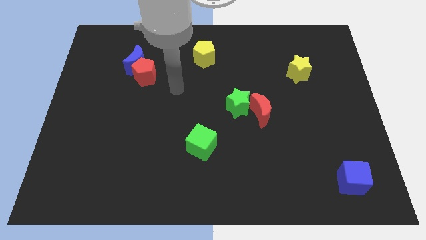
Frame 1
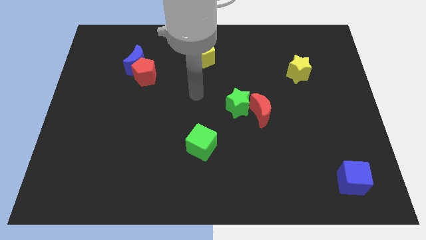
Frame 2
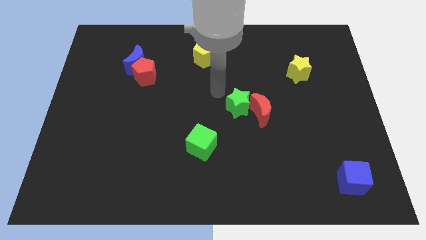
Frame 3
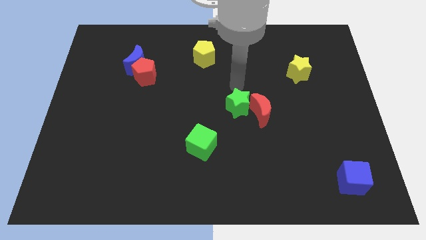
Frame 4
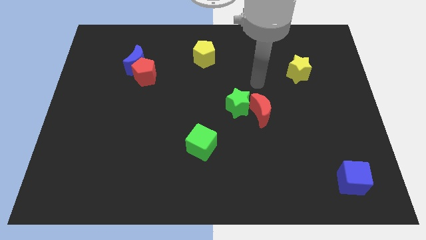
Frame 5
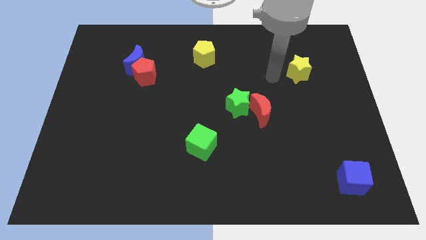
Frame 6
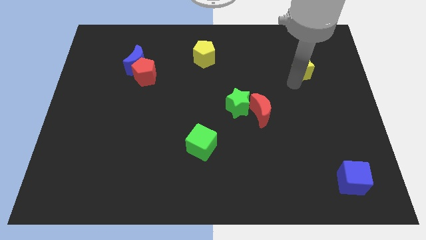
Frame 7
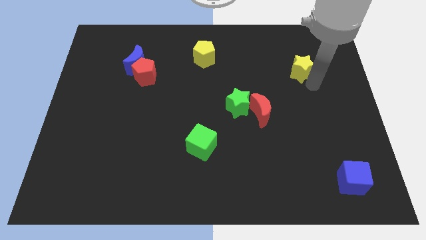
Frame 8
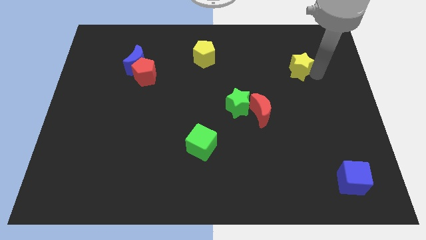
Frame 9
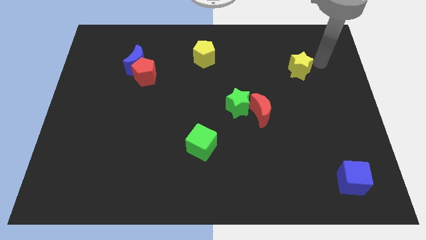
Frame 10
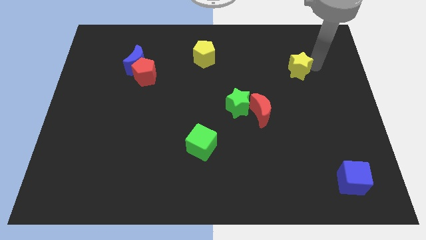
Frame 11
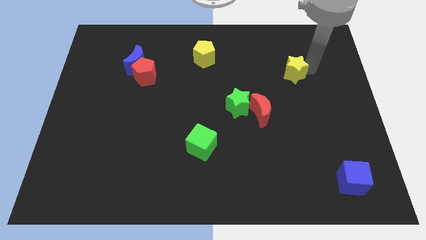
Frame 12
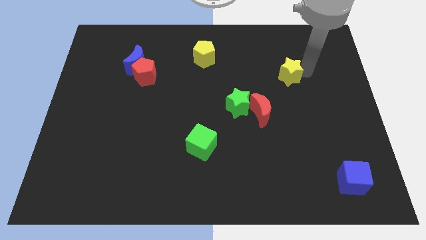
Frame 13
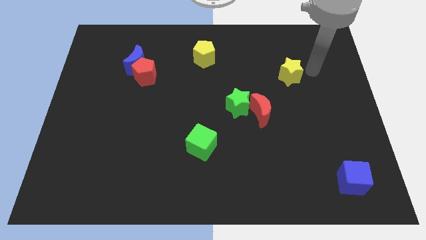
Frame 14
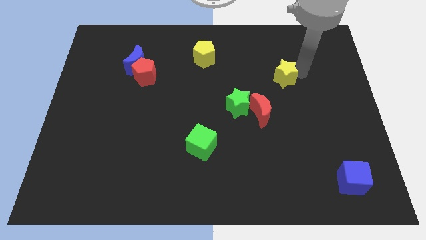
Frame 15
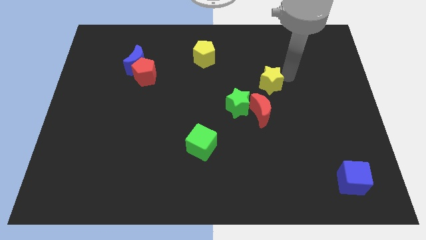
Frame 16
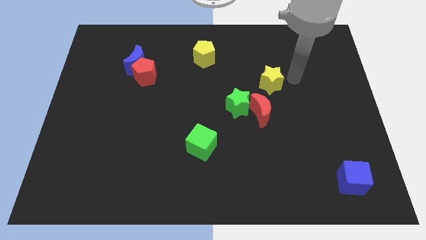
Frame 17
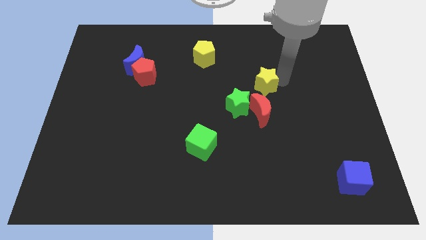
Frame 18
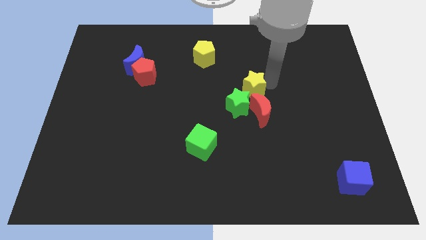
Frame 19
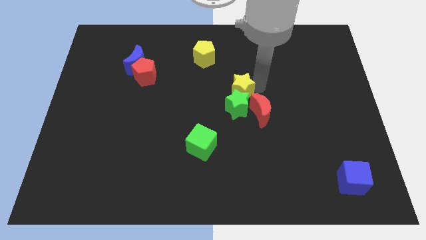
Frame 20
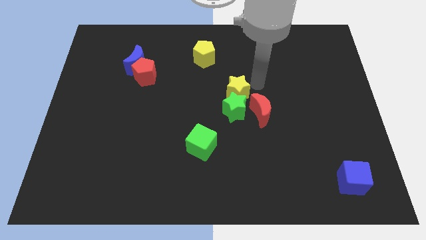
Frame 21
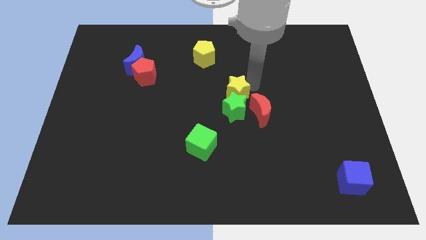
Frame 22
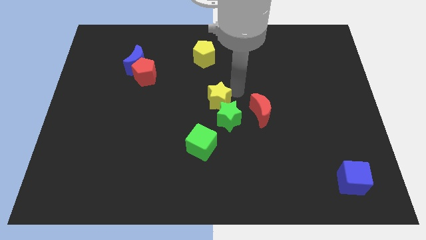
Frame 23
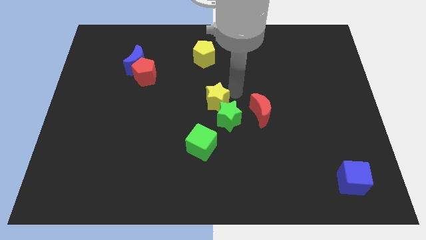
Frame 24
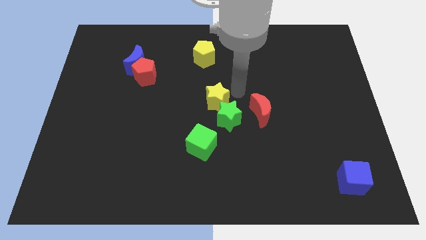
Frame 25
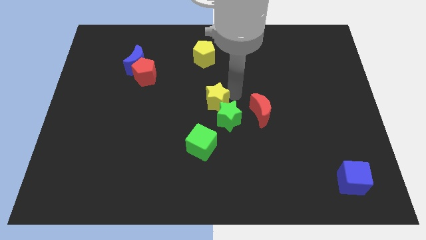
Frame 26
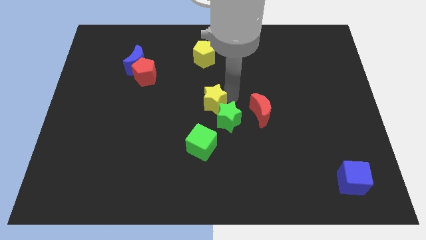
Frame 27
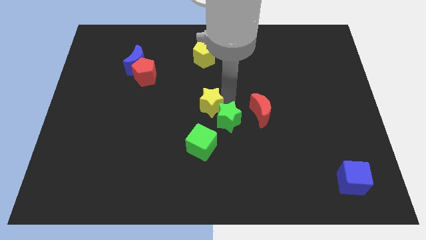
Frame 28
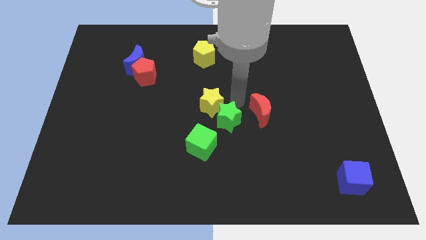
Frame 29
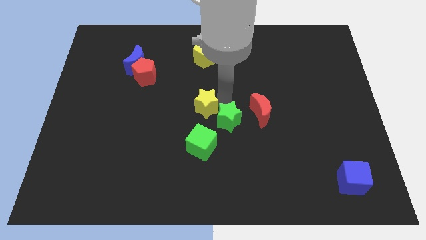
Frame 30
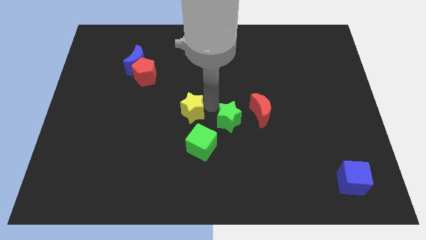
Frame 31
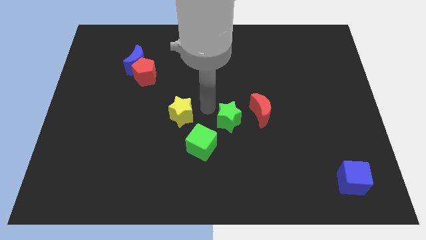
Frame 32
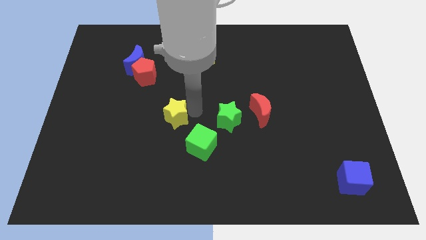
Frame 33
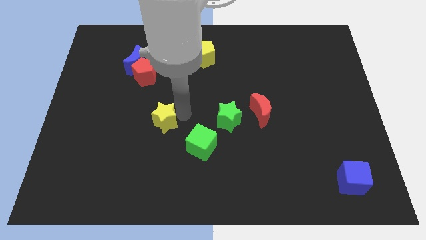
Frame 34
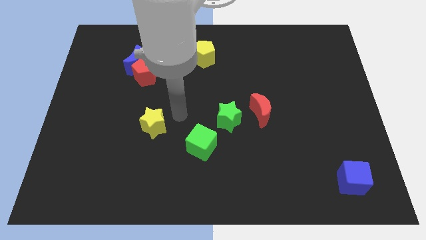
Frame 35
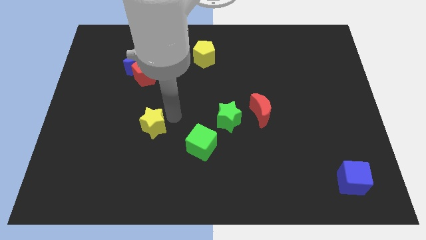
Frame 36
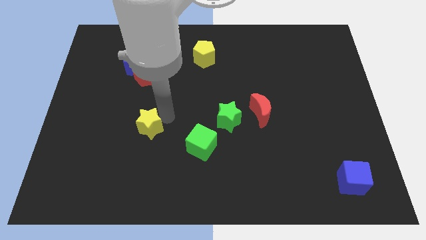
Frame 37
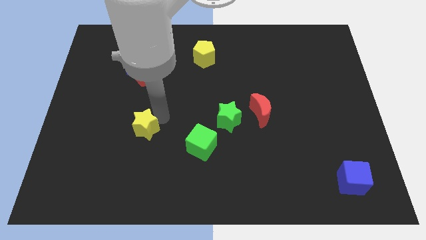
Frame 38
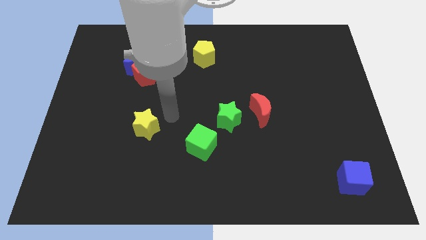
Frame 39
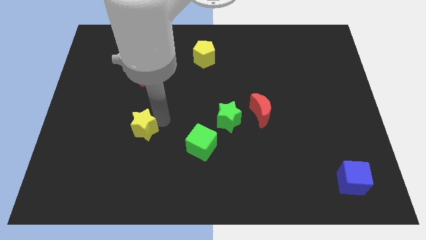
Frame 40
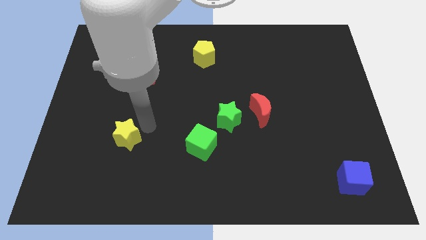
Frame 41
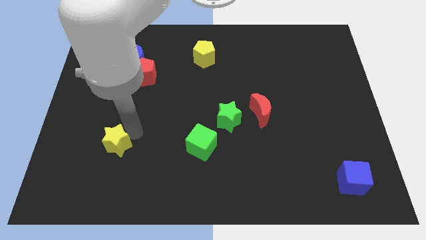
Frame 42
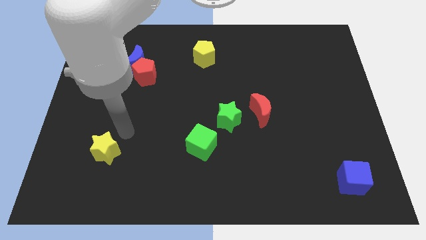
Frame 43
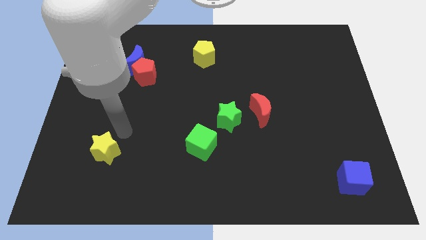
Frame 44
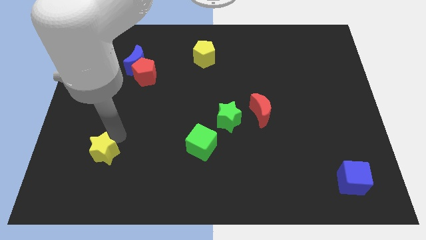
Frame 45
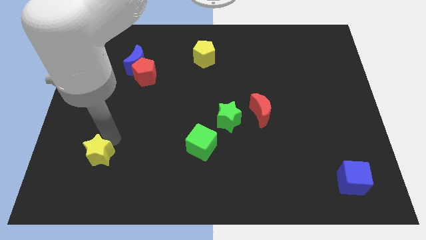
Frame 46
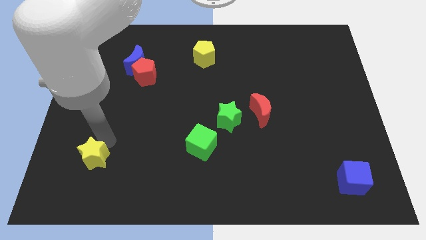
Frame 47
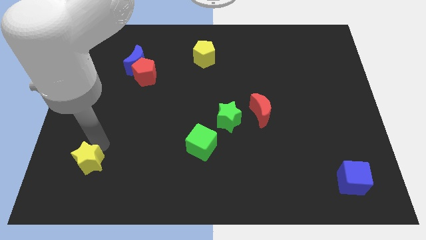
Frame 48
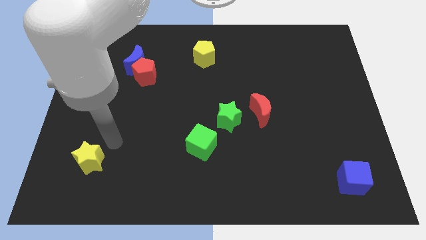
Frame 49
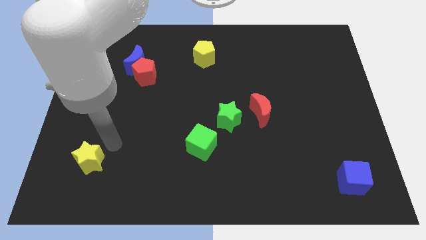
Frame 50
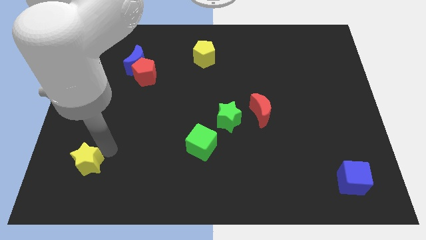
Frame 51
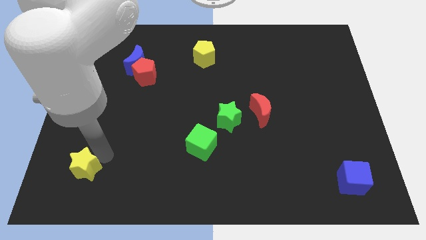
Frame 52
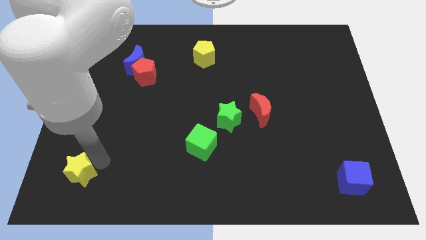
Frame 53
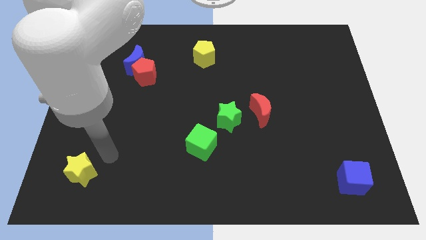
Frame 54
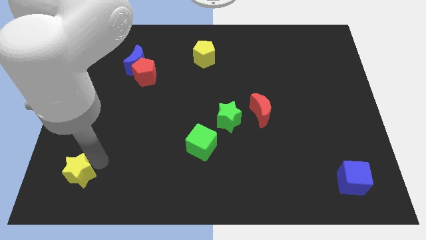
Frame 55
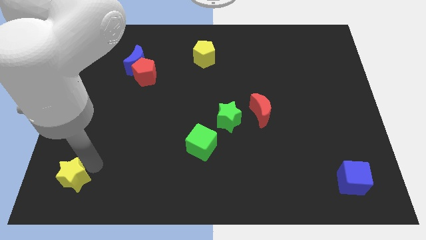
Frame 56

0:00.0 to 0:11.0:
move the yellow star to the lower left corner

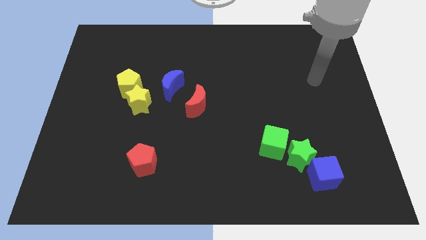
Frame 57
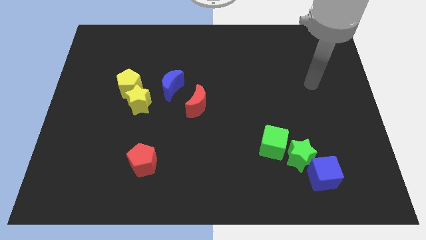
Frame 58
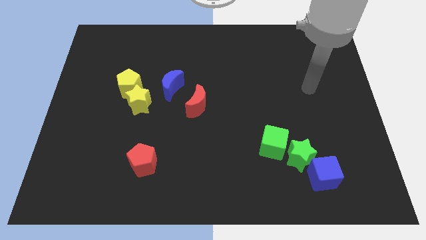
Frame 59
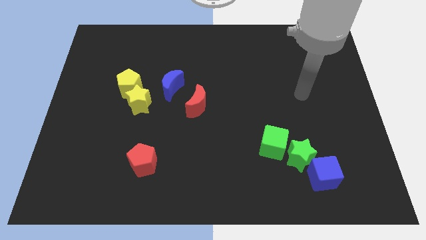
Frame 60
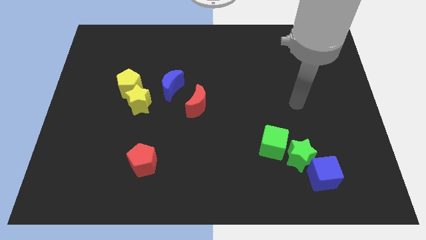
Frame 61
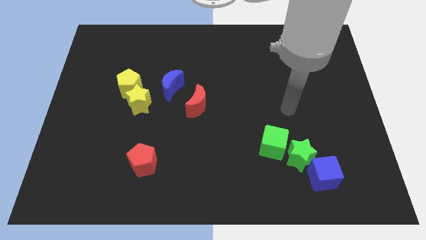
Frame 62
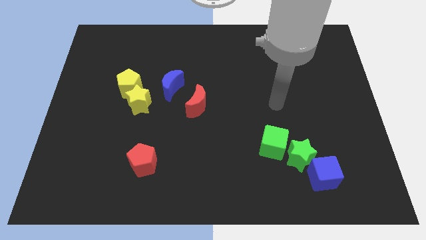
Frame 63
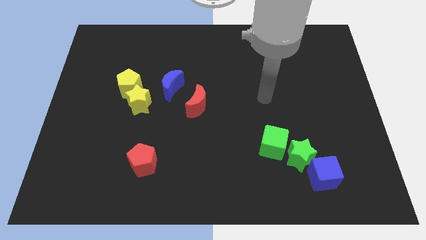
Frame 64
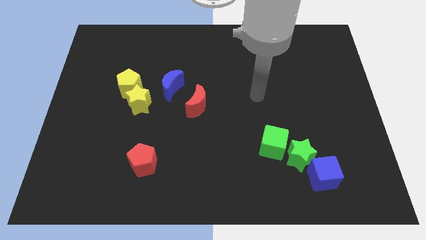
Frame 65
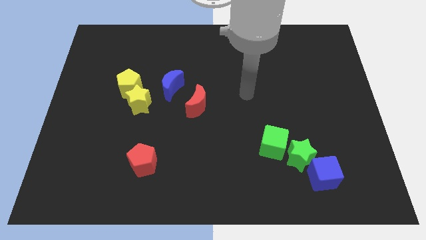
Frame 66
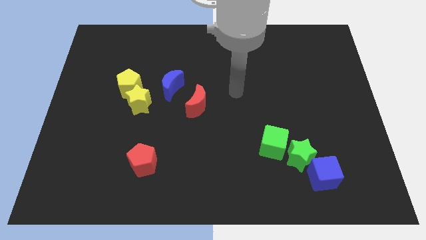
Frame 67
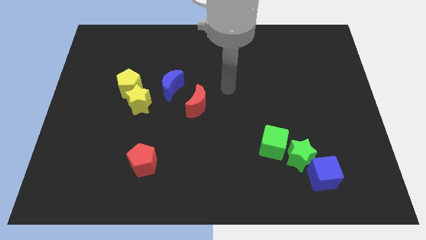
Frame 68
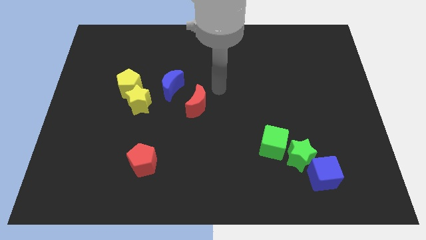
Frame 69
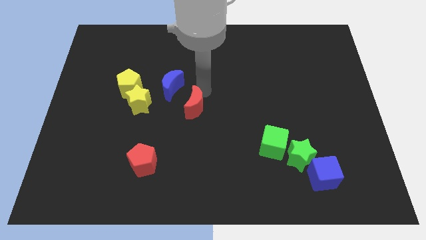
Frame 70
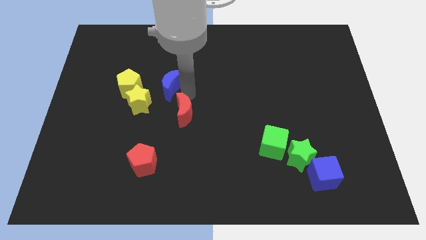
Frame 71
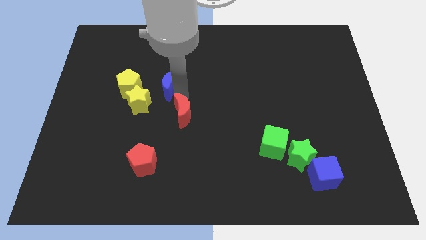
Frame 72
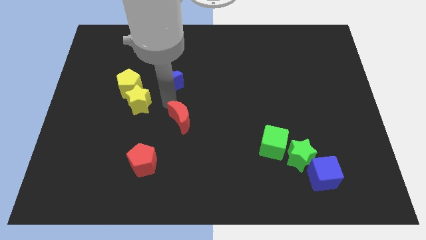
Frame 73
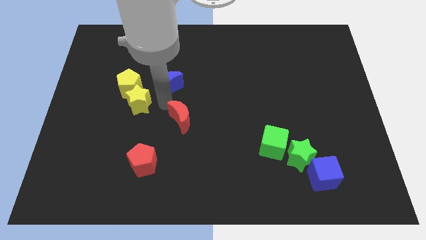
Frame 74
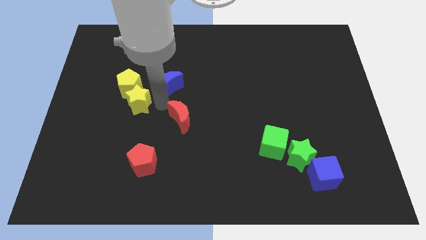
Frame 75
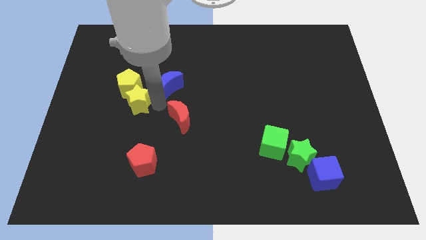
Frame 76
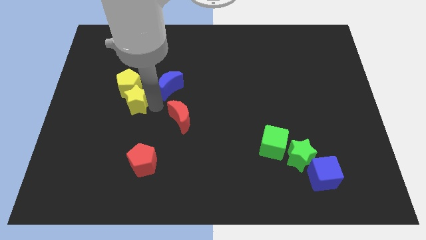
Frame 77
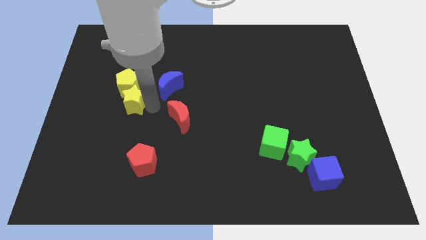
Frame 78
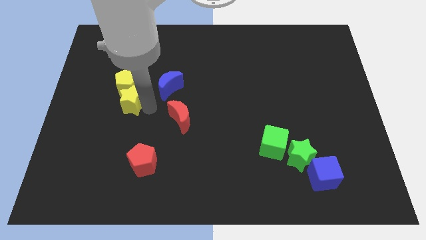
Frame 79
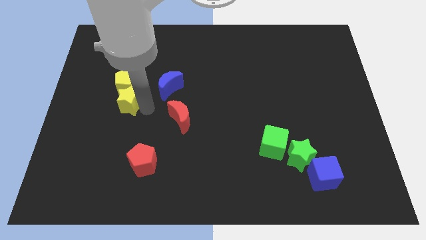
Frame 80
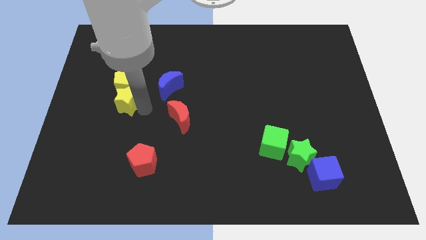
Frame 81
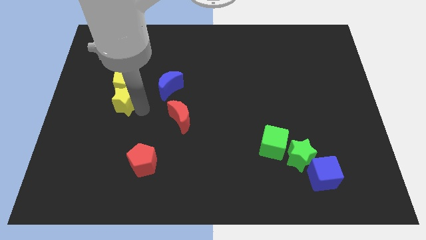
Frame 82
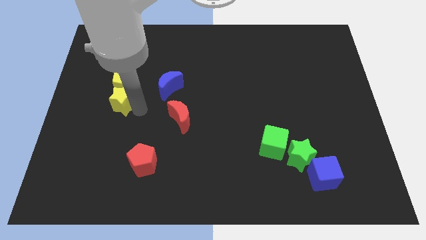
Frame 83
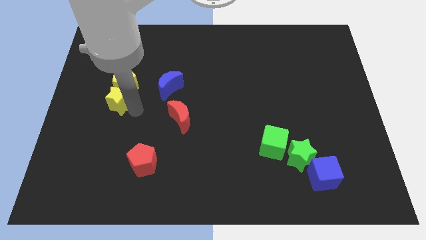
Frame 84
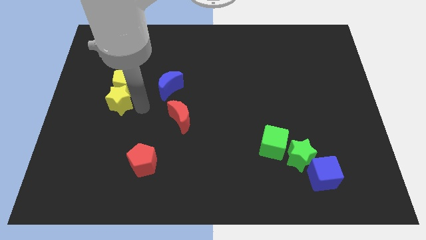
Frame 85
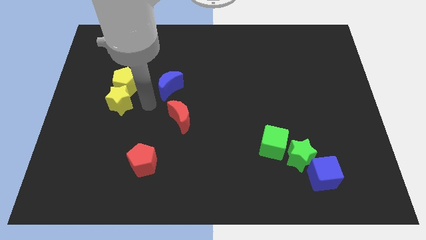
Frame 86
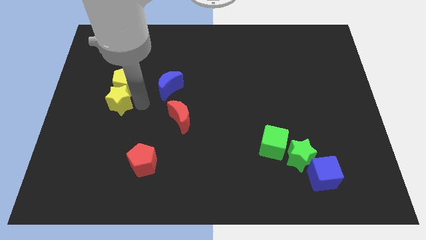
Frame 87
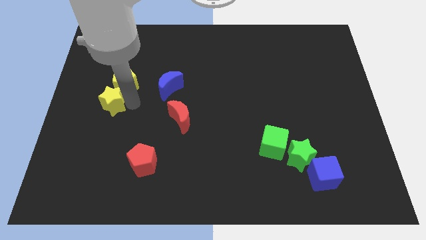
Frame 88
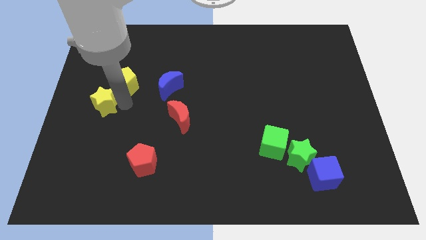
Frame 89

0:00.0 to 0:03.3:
move the yellow star to the left side
